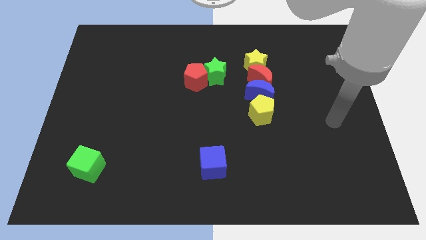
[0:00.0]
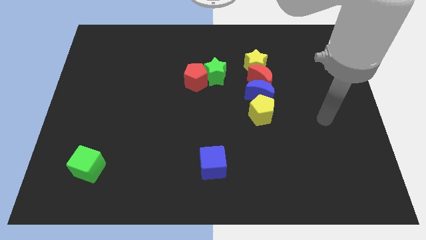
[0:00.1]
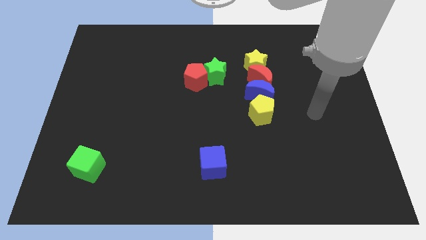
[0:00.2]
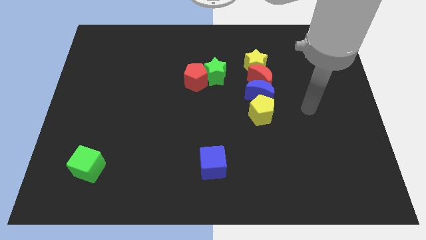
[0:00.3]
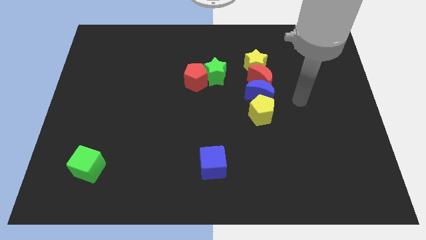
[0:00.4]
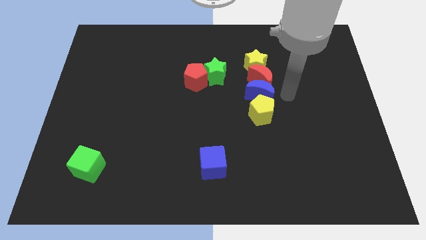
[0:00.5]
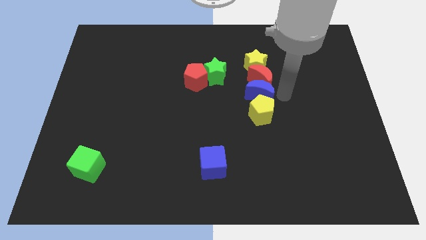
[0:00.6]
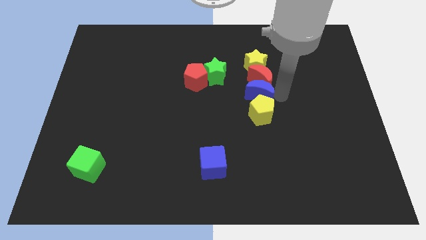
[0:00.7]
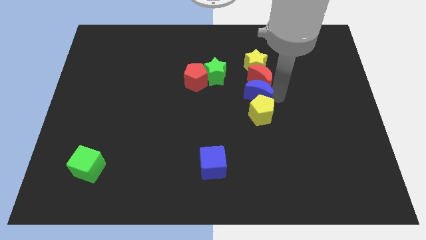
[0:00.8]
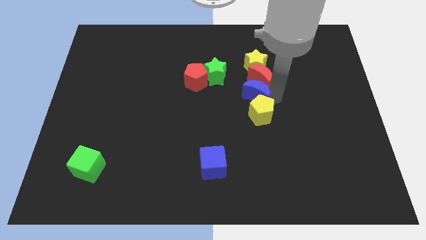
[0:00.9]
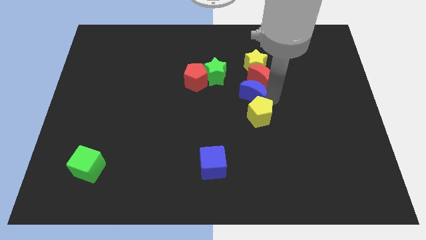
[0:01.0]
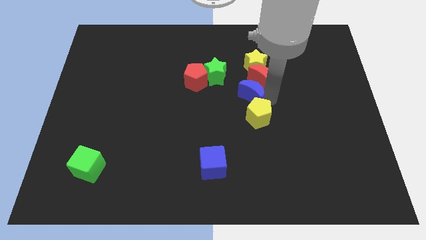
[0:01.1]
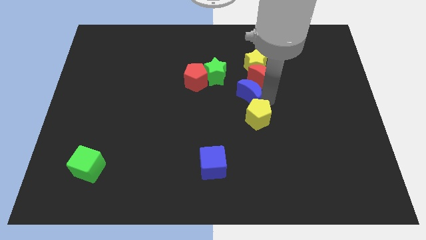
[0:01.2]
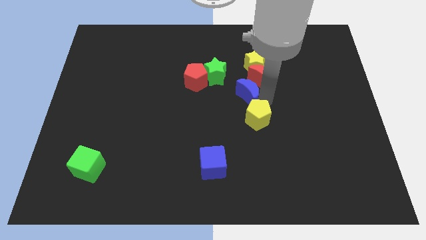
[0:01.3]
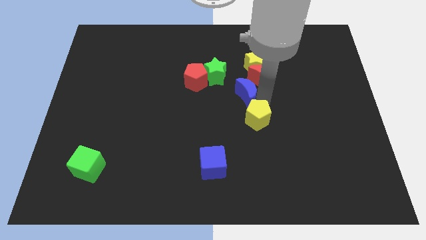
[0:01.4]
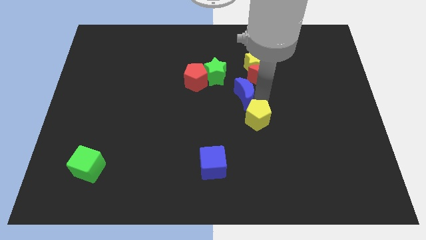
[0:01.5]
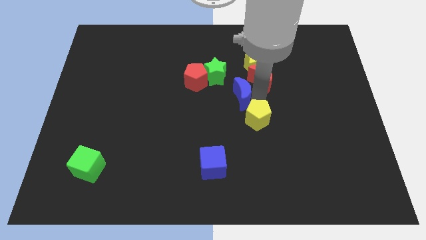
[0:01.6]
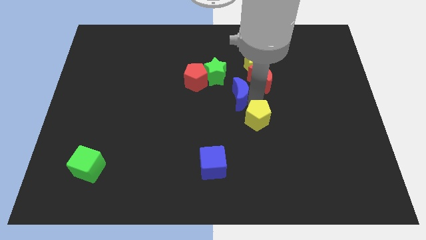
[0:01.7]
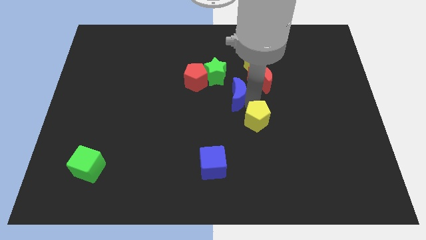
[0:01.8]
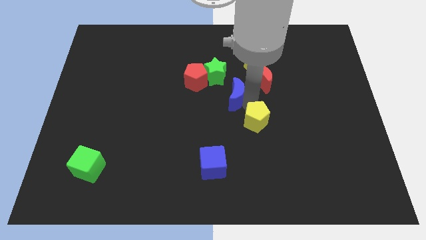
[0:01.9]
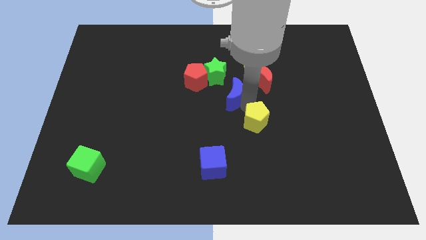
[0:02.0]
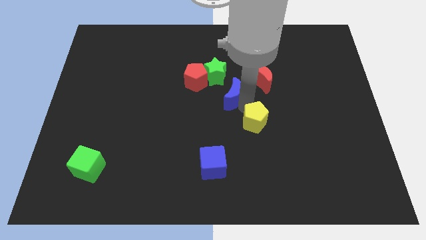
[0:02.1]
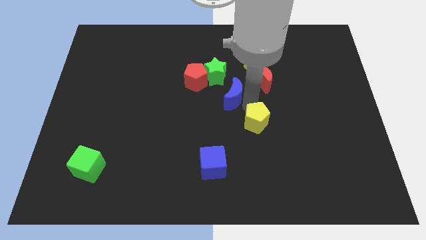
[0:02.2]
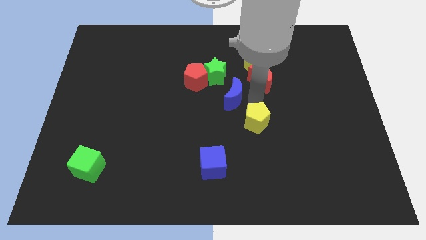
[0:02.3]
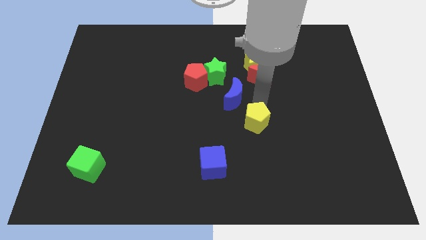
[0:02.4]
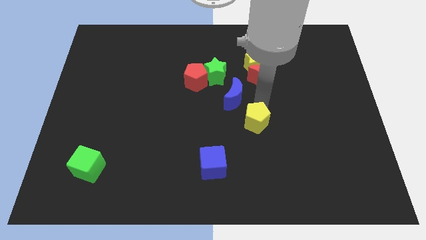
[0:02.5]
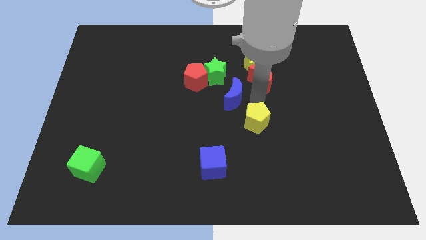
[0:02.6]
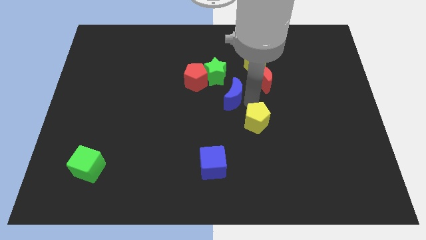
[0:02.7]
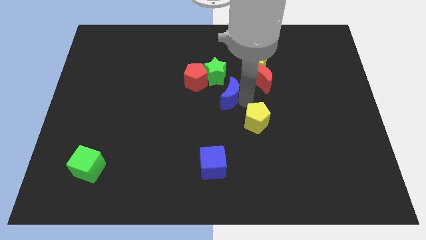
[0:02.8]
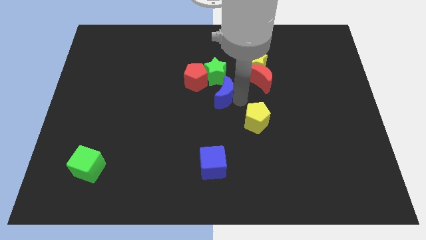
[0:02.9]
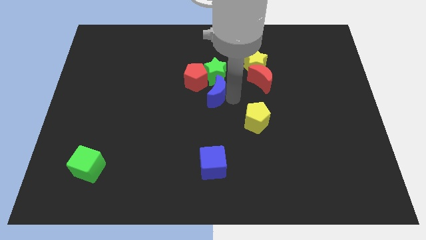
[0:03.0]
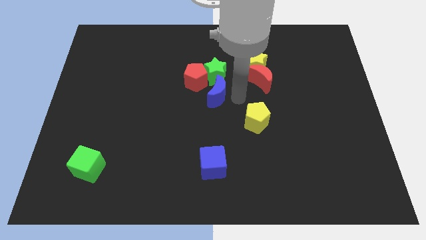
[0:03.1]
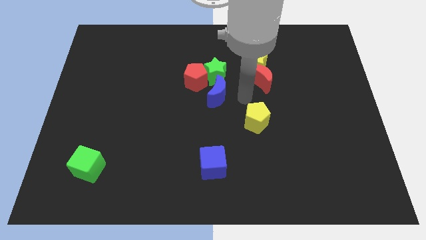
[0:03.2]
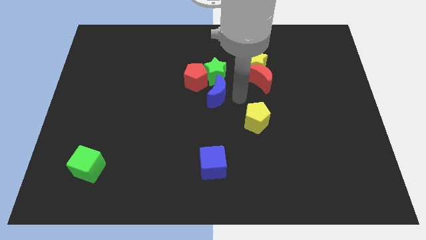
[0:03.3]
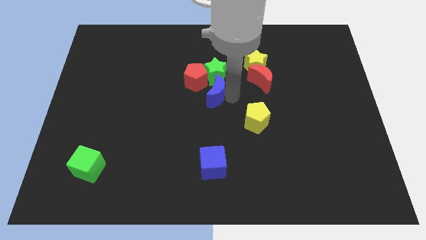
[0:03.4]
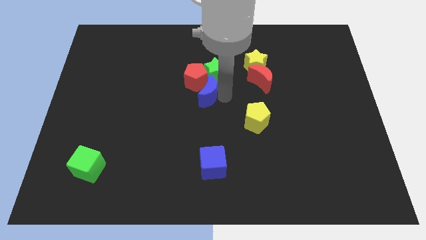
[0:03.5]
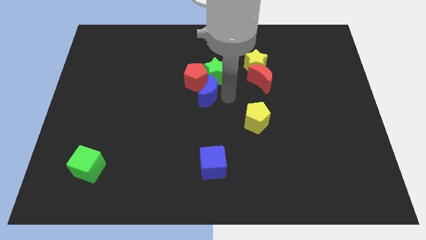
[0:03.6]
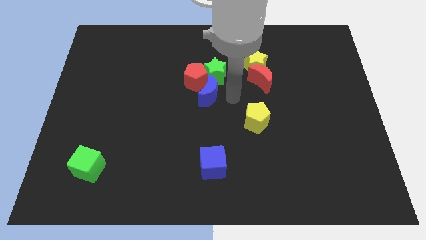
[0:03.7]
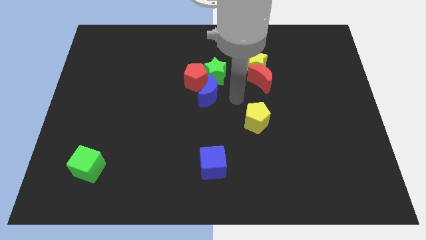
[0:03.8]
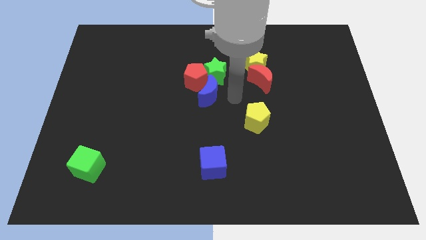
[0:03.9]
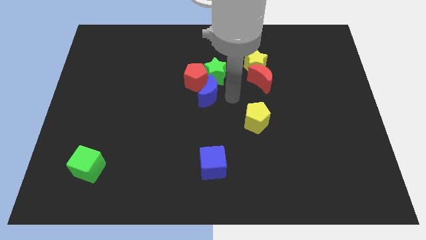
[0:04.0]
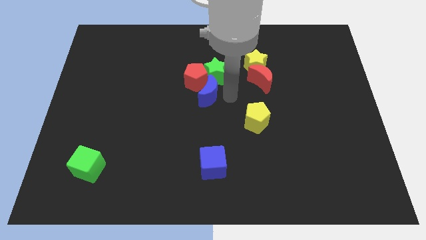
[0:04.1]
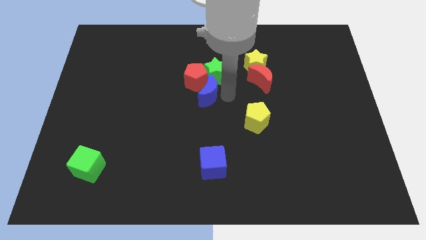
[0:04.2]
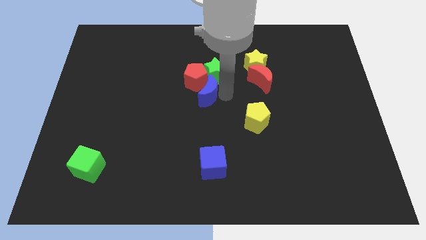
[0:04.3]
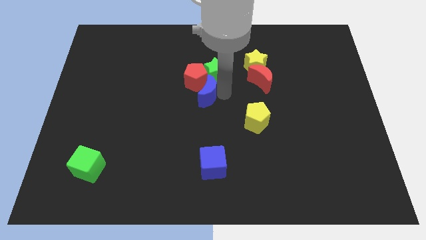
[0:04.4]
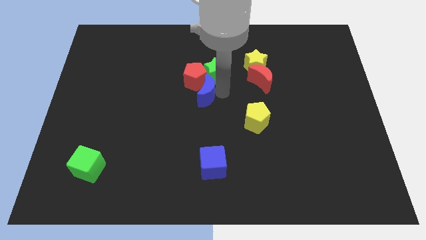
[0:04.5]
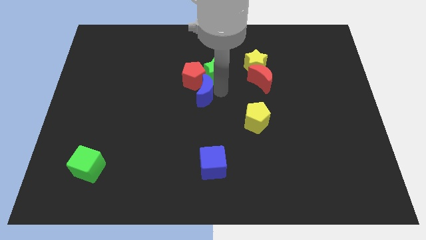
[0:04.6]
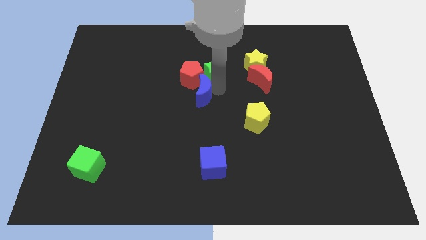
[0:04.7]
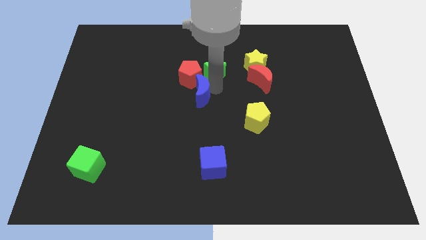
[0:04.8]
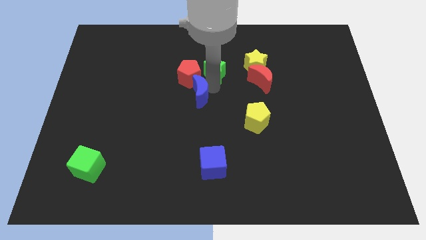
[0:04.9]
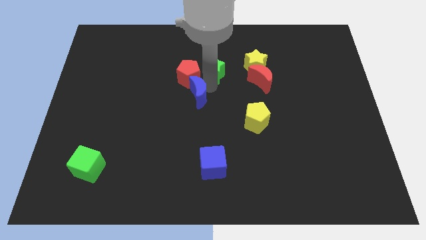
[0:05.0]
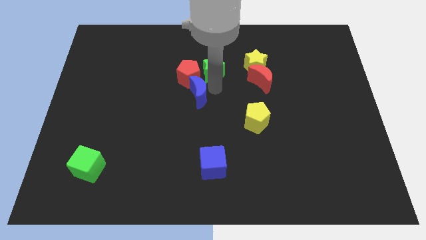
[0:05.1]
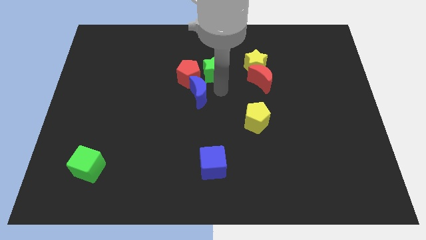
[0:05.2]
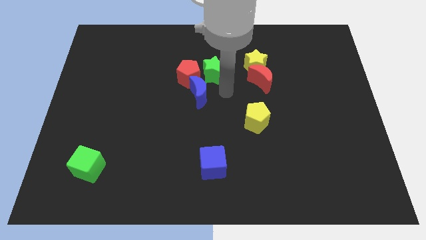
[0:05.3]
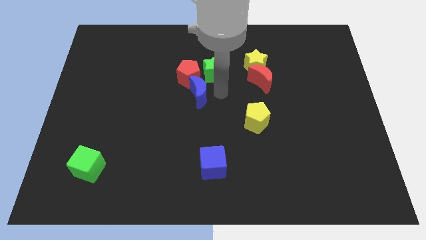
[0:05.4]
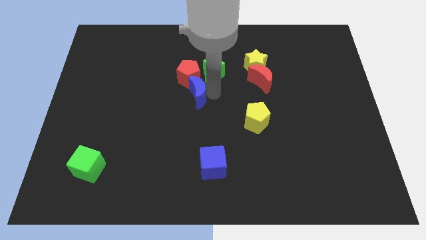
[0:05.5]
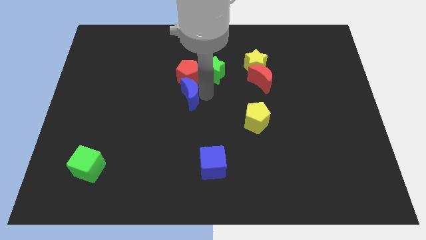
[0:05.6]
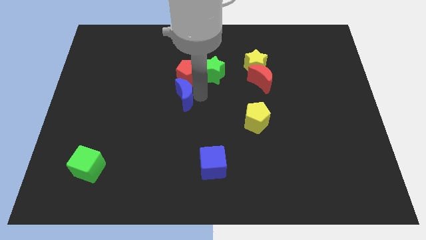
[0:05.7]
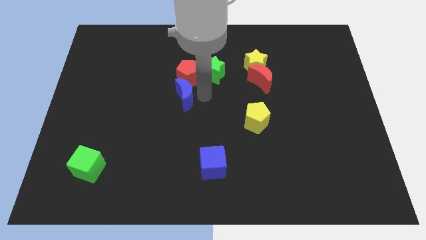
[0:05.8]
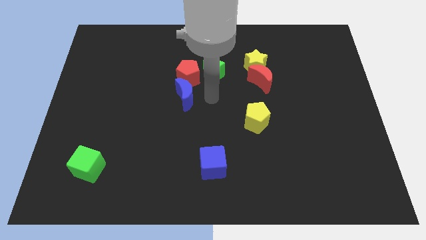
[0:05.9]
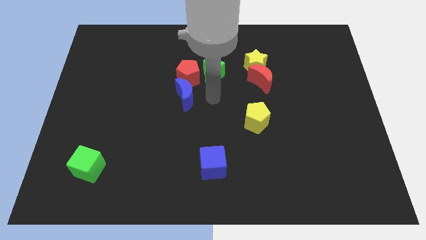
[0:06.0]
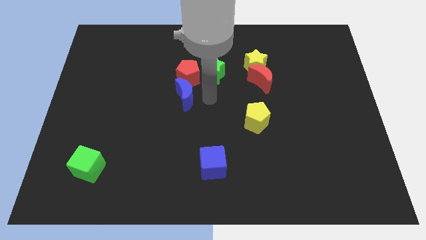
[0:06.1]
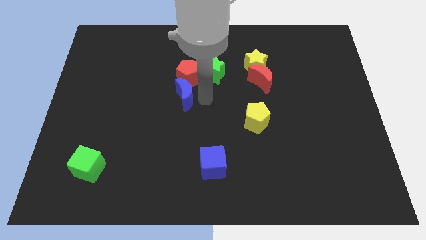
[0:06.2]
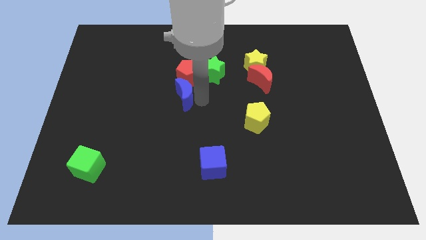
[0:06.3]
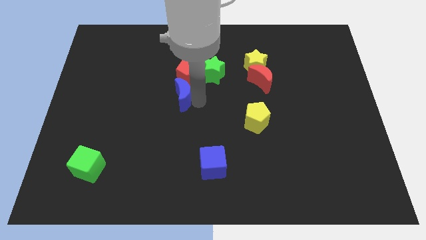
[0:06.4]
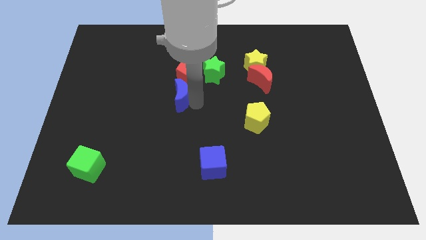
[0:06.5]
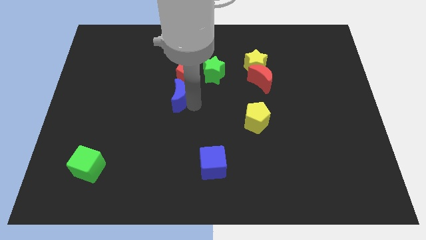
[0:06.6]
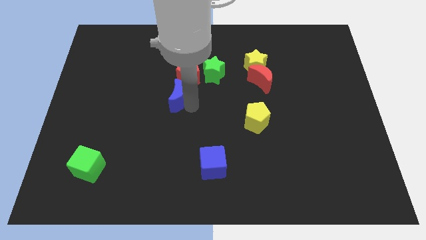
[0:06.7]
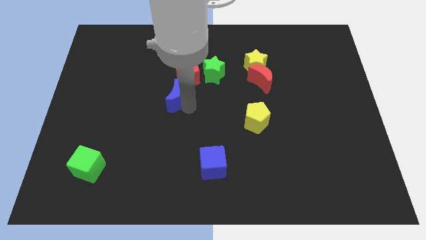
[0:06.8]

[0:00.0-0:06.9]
push the blue moon left

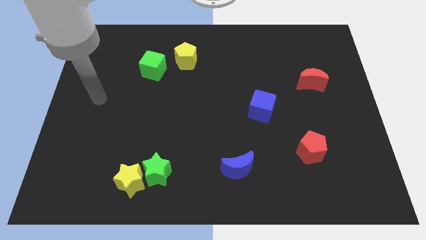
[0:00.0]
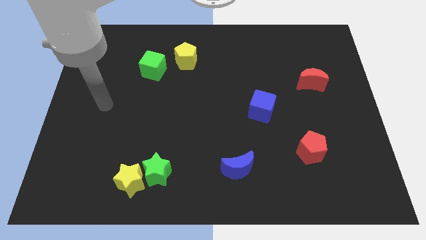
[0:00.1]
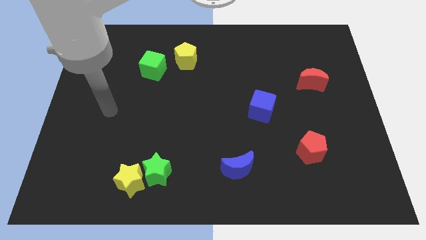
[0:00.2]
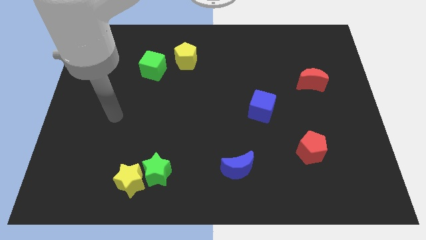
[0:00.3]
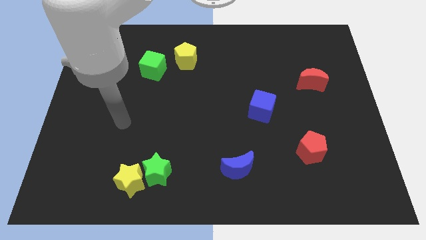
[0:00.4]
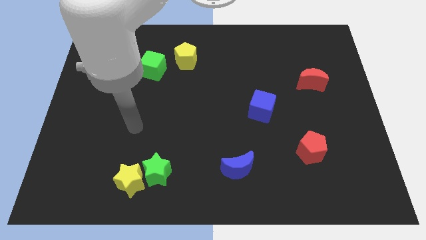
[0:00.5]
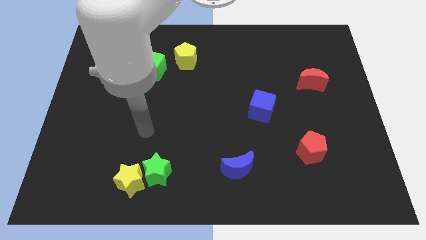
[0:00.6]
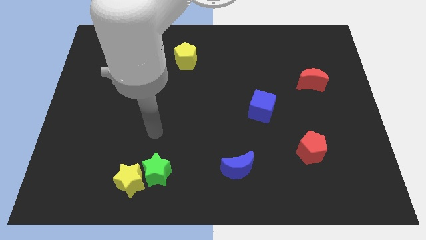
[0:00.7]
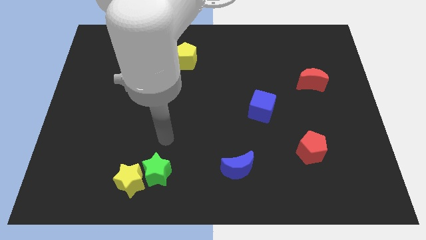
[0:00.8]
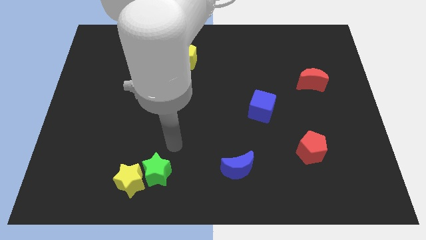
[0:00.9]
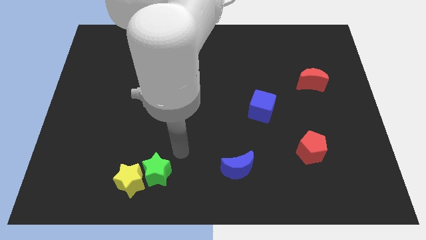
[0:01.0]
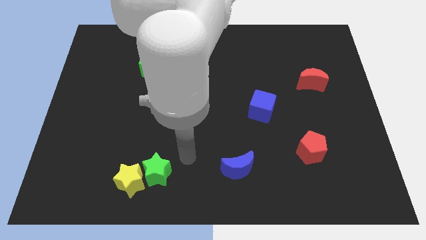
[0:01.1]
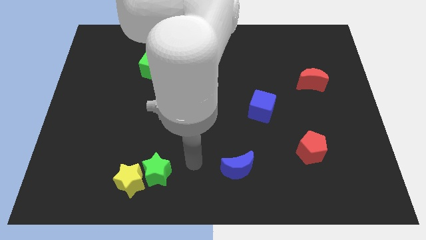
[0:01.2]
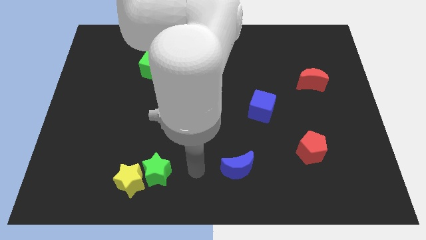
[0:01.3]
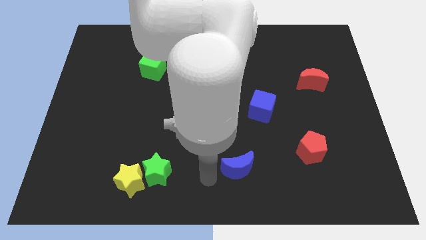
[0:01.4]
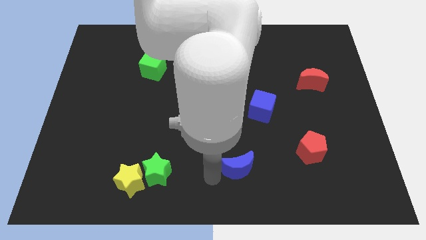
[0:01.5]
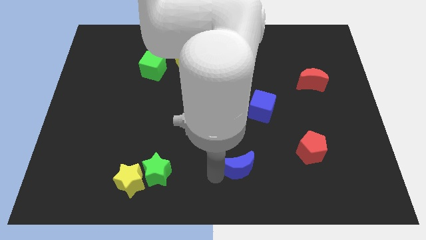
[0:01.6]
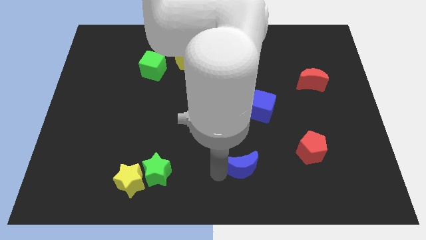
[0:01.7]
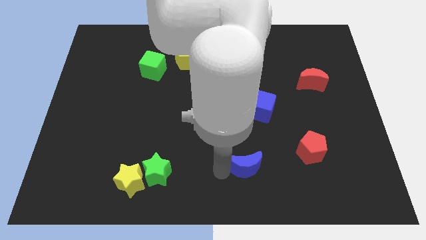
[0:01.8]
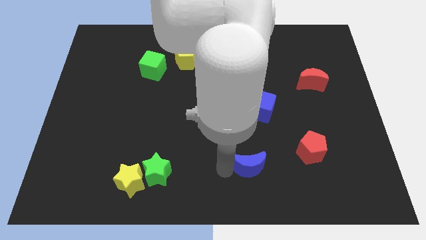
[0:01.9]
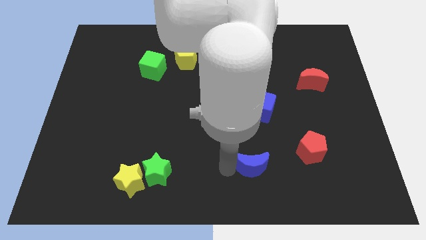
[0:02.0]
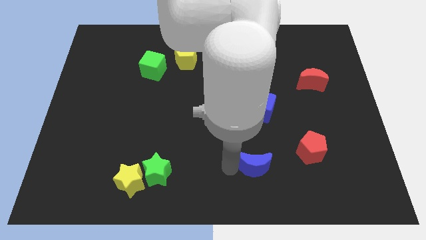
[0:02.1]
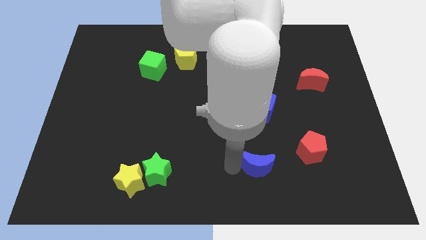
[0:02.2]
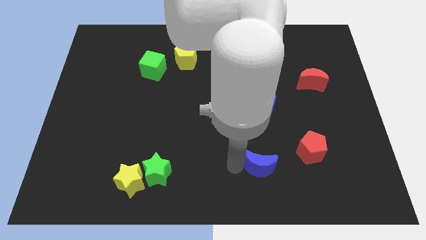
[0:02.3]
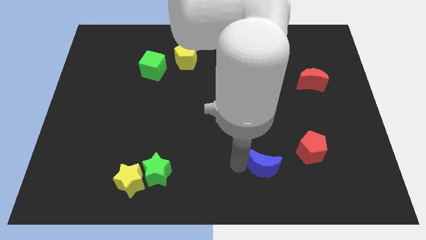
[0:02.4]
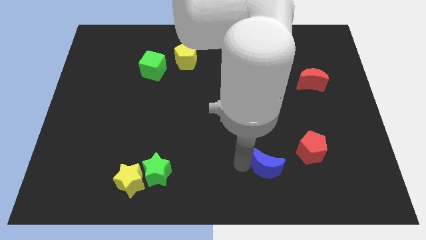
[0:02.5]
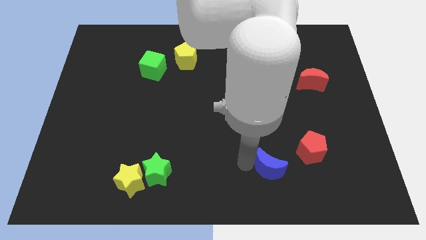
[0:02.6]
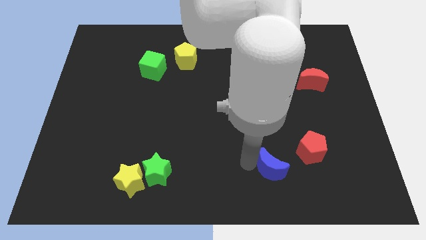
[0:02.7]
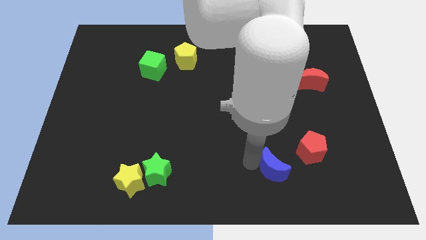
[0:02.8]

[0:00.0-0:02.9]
slide the blue moon somewhat to the right
